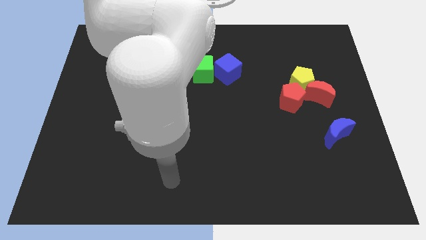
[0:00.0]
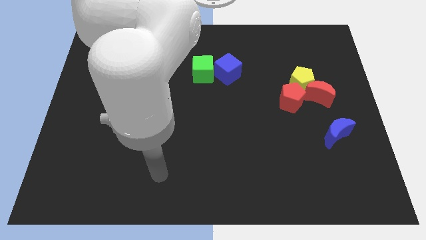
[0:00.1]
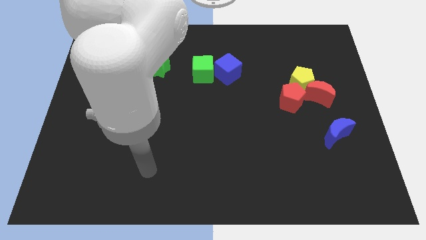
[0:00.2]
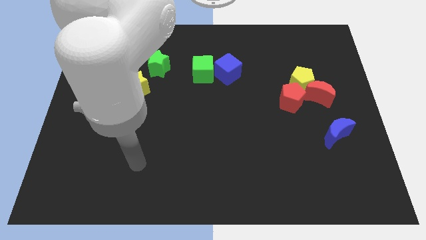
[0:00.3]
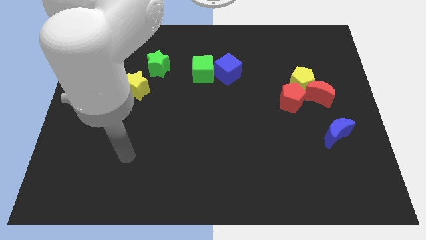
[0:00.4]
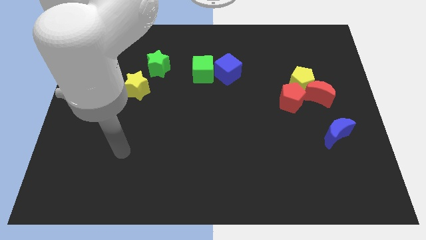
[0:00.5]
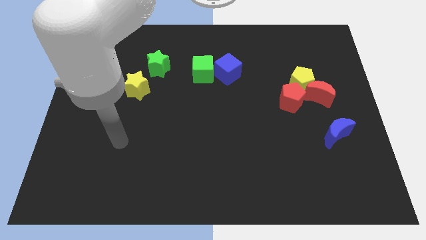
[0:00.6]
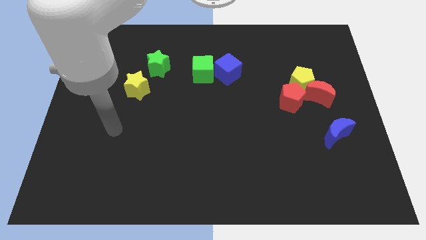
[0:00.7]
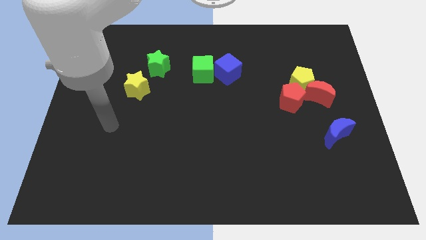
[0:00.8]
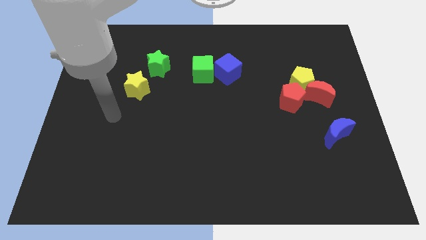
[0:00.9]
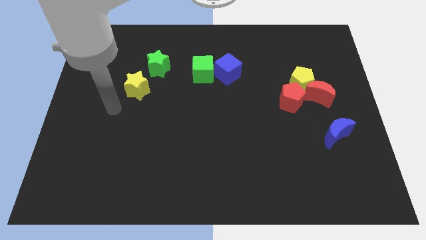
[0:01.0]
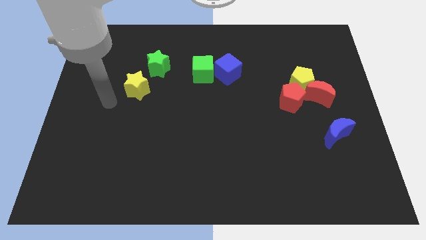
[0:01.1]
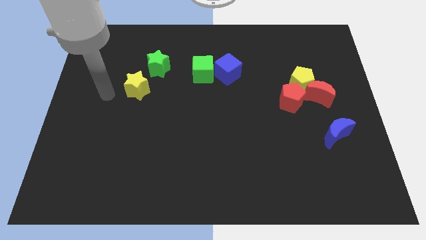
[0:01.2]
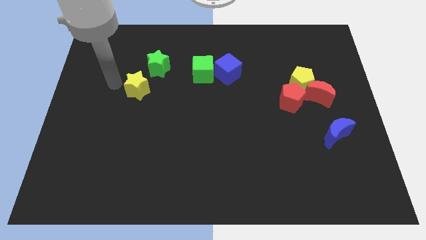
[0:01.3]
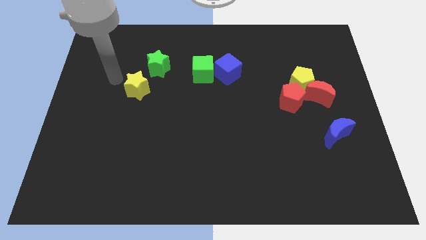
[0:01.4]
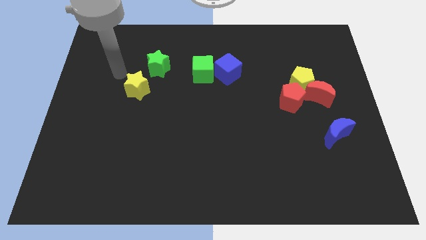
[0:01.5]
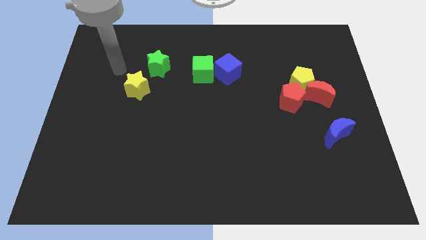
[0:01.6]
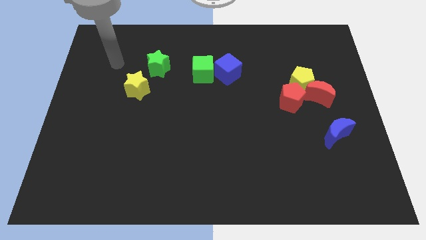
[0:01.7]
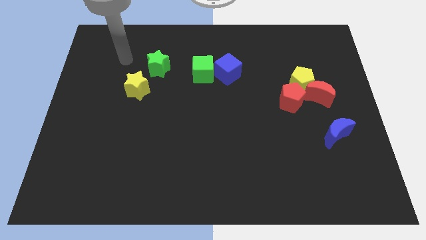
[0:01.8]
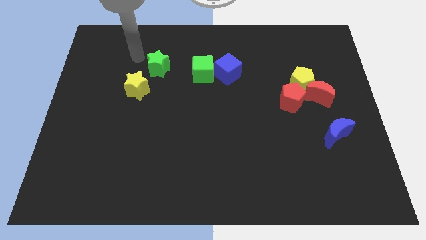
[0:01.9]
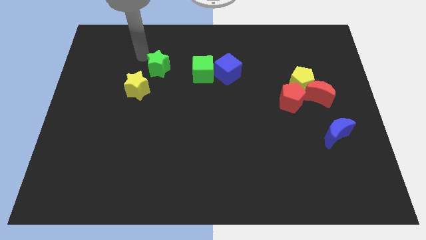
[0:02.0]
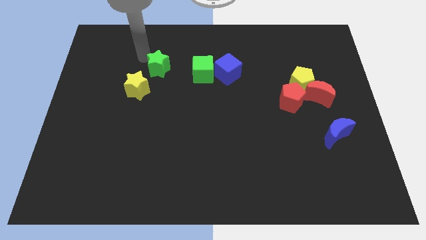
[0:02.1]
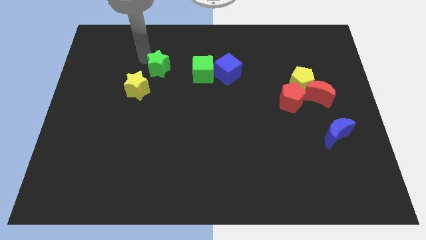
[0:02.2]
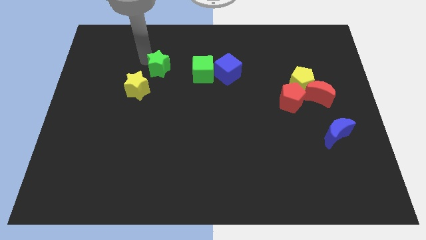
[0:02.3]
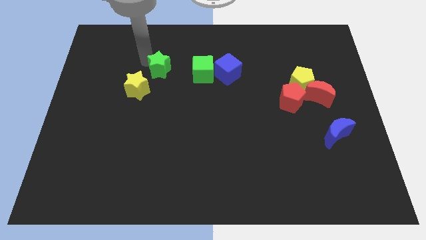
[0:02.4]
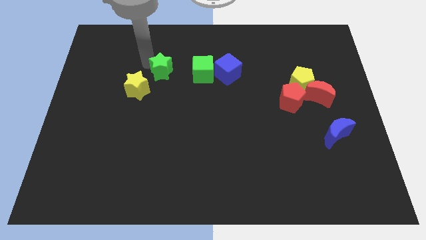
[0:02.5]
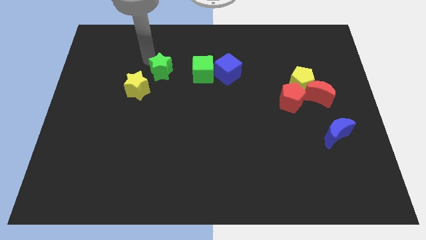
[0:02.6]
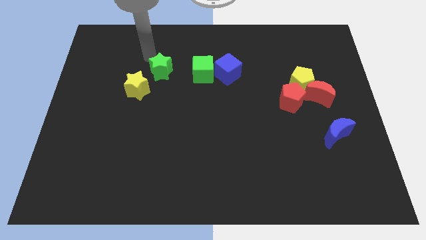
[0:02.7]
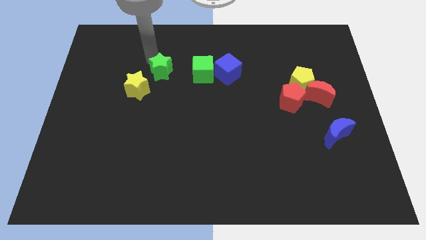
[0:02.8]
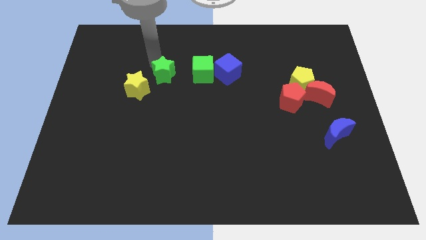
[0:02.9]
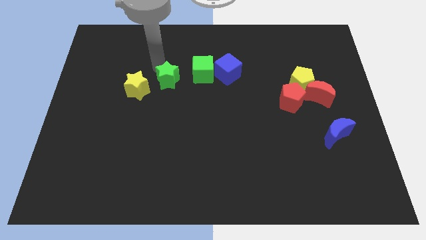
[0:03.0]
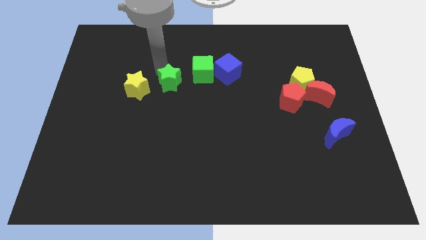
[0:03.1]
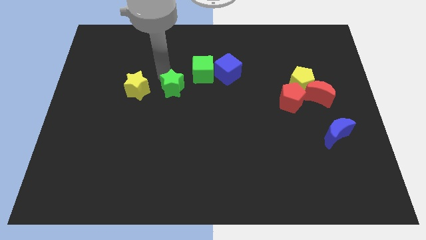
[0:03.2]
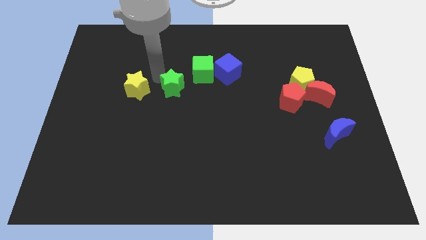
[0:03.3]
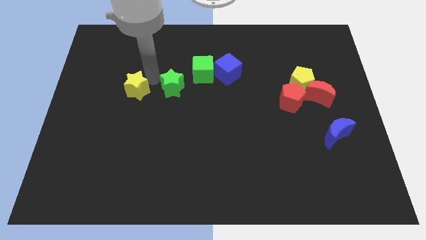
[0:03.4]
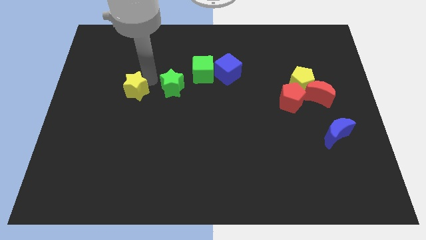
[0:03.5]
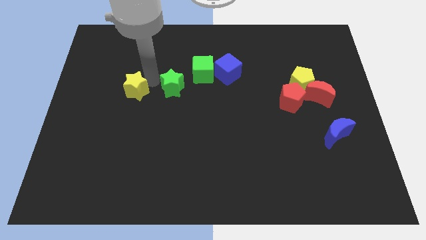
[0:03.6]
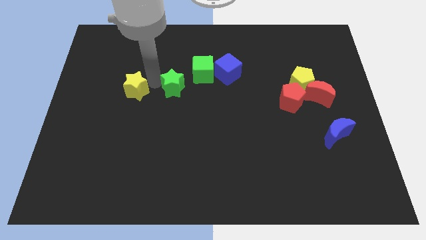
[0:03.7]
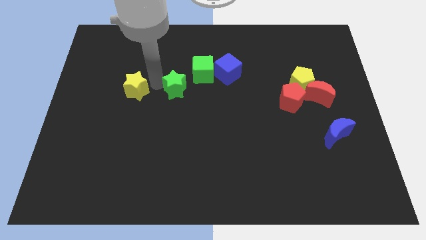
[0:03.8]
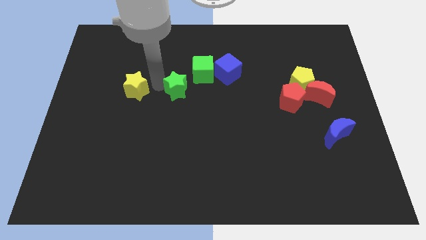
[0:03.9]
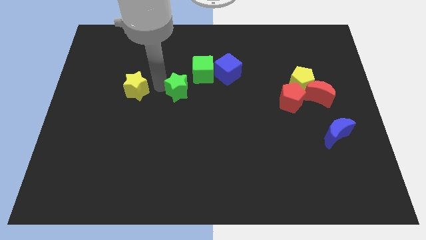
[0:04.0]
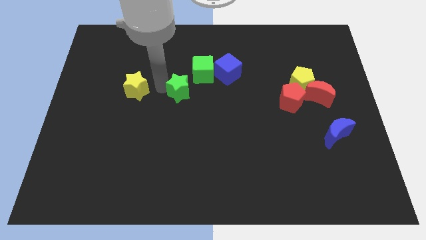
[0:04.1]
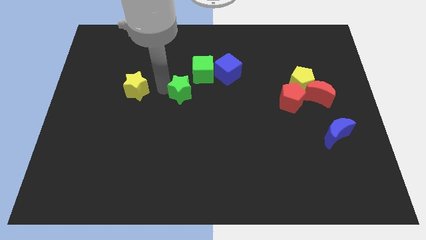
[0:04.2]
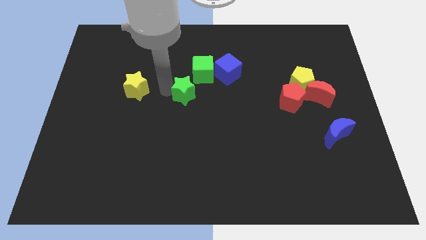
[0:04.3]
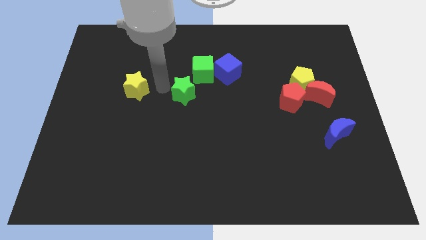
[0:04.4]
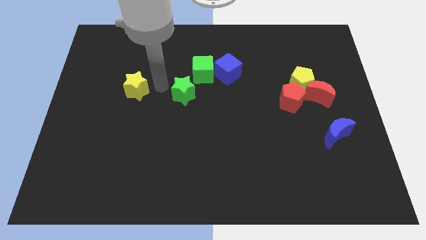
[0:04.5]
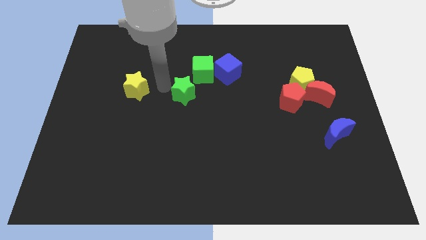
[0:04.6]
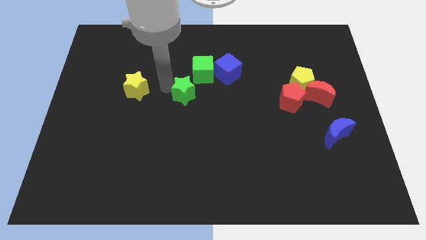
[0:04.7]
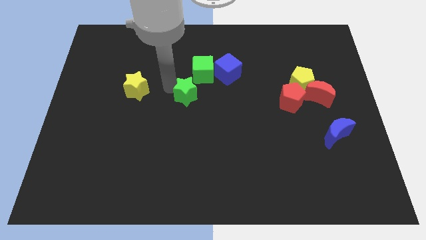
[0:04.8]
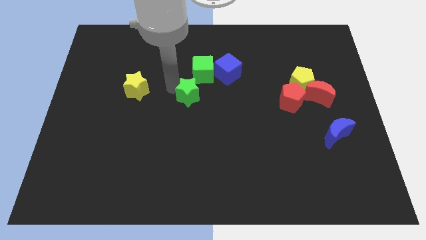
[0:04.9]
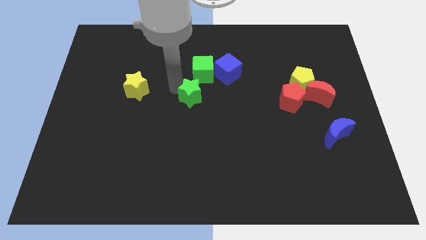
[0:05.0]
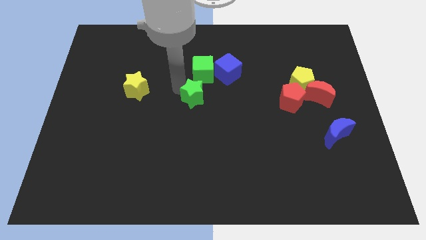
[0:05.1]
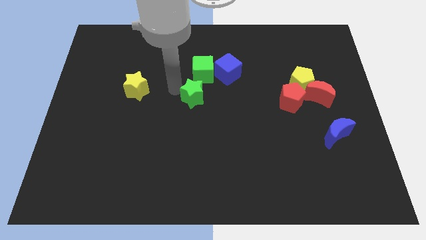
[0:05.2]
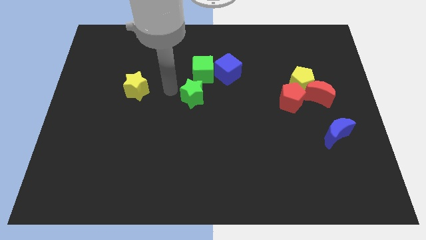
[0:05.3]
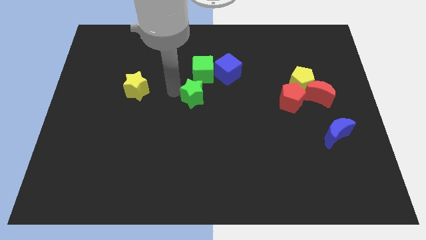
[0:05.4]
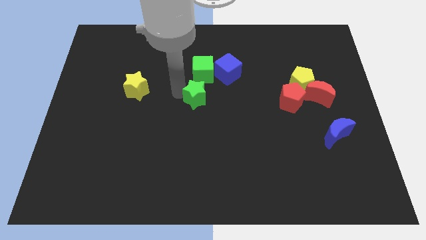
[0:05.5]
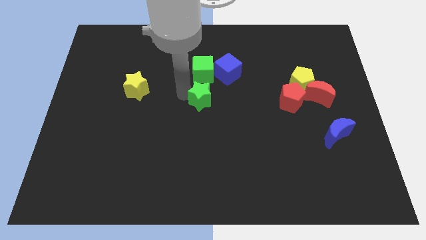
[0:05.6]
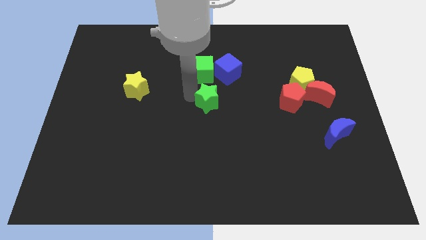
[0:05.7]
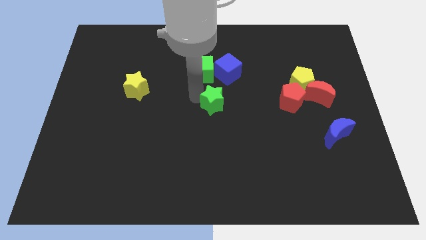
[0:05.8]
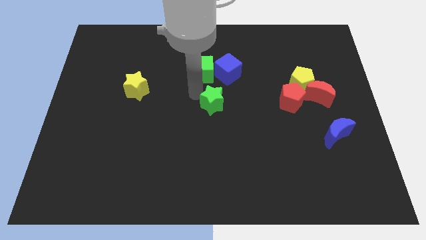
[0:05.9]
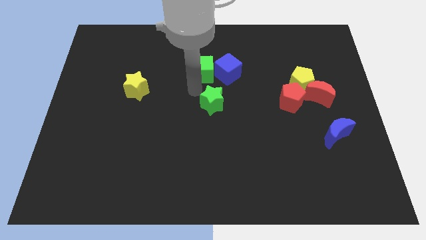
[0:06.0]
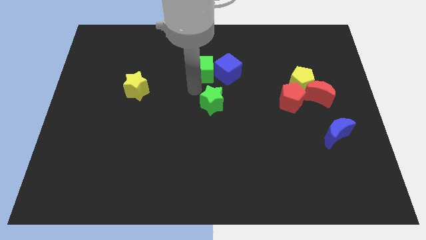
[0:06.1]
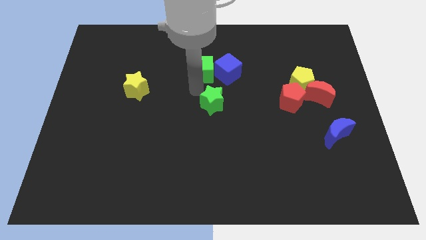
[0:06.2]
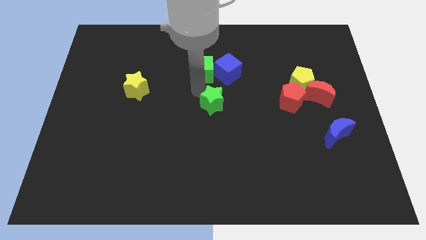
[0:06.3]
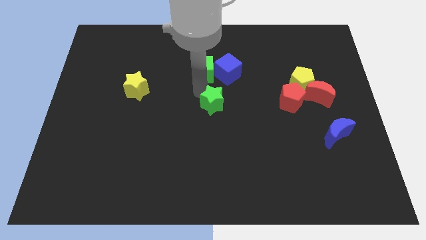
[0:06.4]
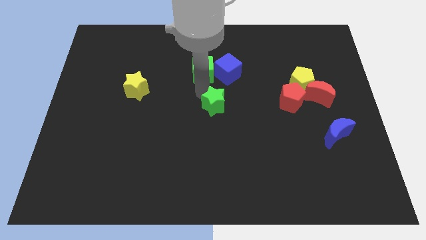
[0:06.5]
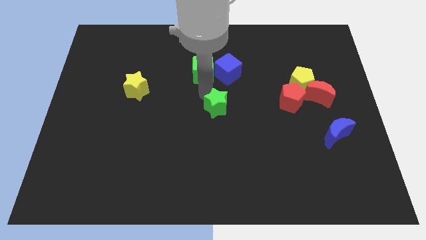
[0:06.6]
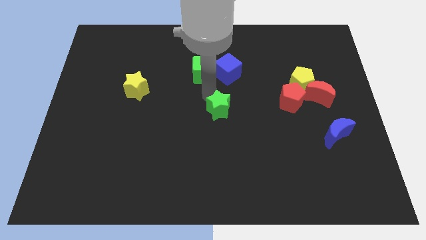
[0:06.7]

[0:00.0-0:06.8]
slide the green star down and then right

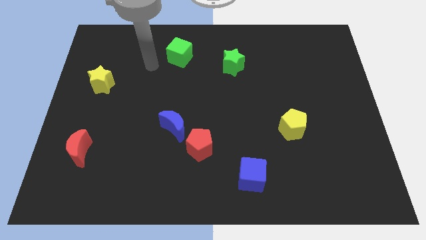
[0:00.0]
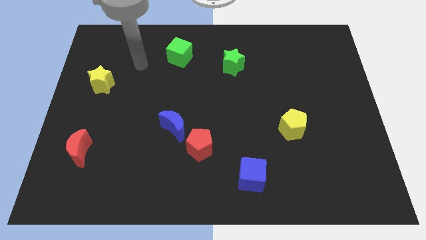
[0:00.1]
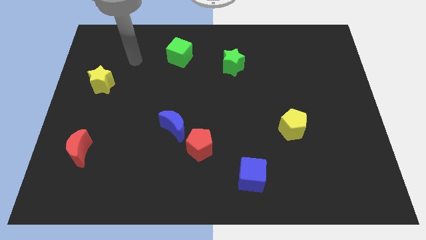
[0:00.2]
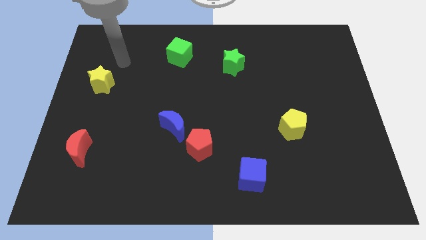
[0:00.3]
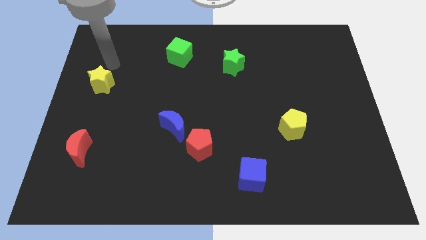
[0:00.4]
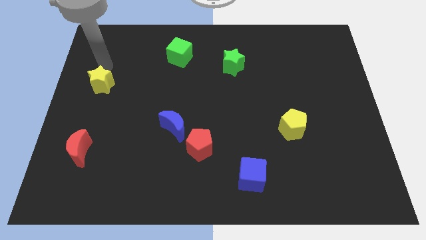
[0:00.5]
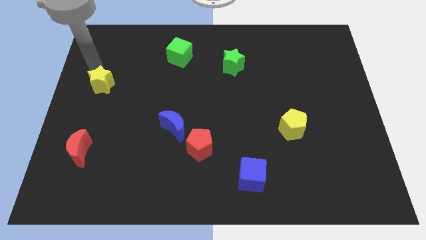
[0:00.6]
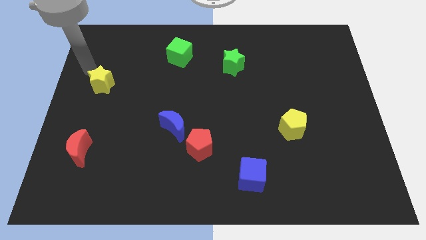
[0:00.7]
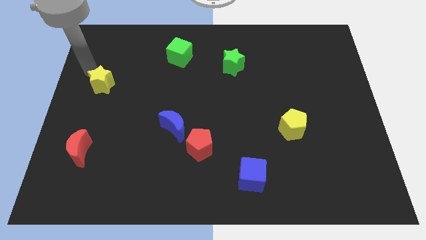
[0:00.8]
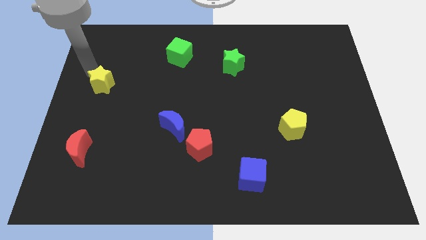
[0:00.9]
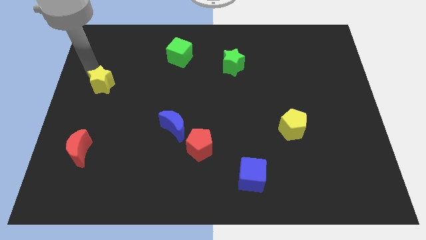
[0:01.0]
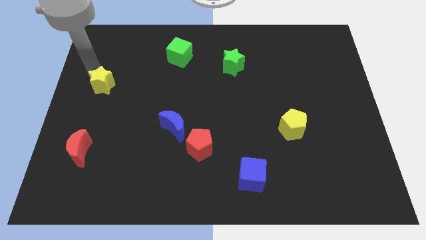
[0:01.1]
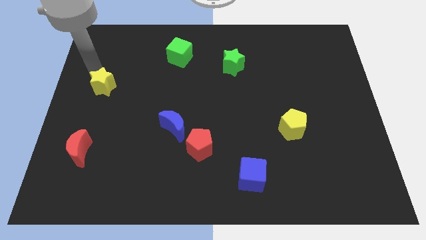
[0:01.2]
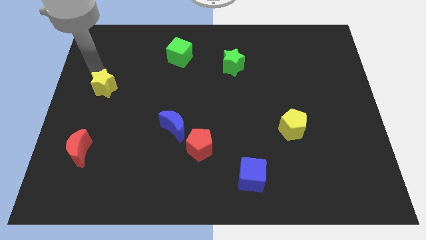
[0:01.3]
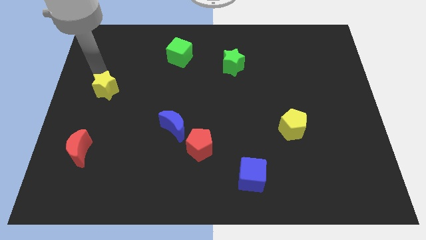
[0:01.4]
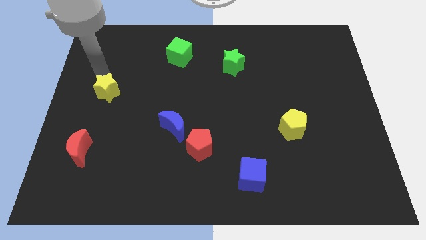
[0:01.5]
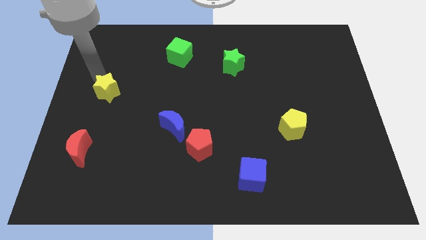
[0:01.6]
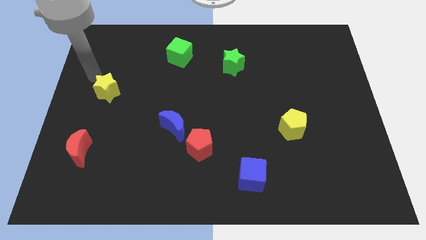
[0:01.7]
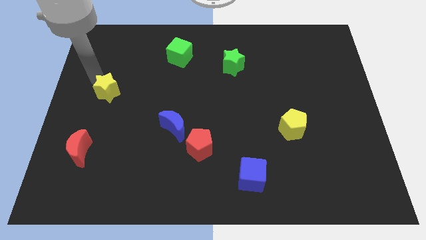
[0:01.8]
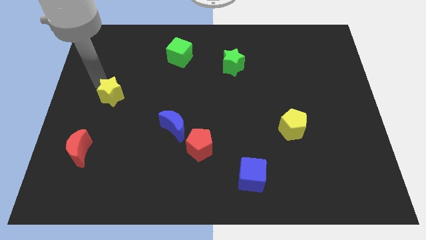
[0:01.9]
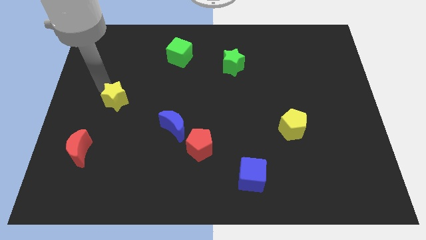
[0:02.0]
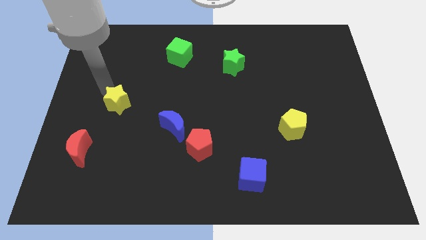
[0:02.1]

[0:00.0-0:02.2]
push the yellow star diagonally downwards and right slightly
